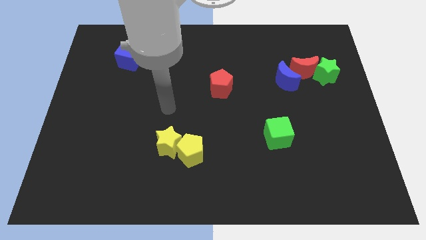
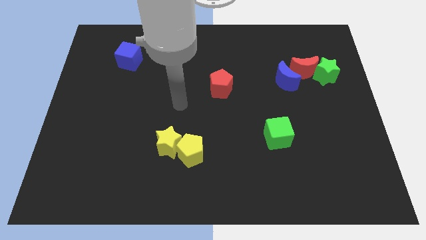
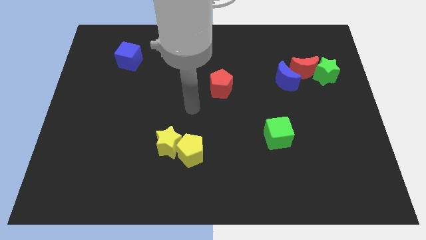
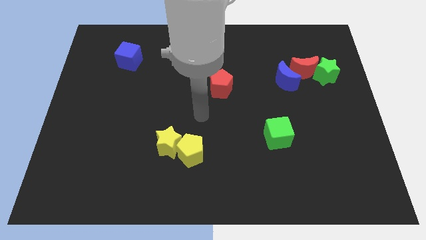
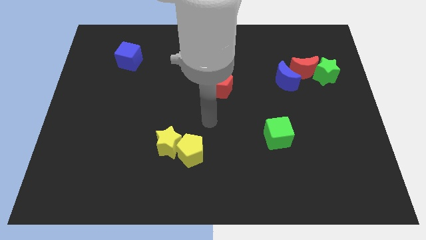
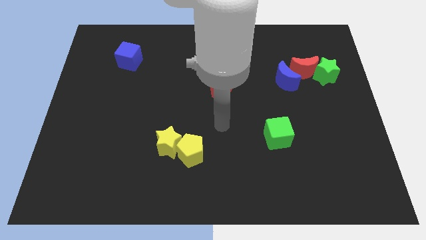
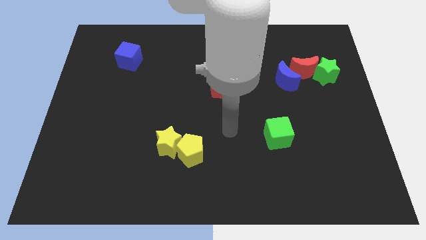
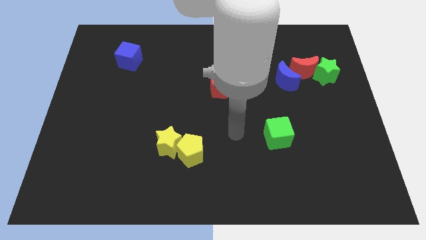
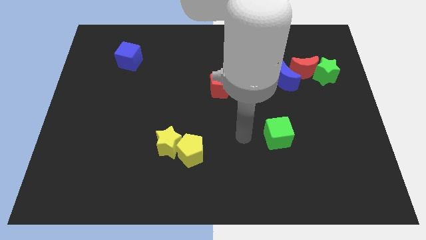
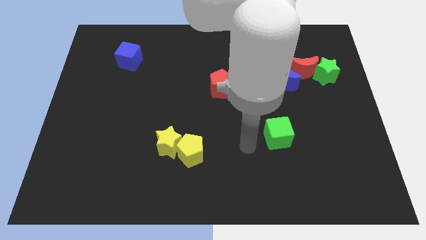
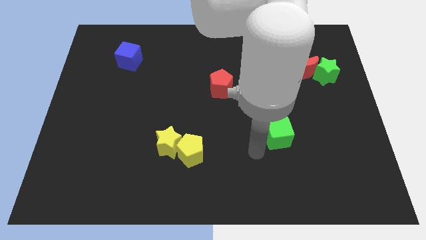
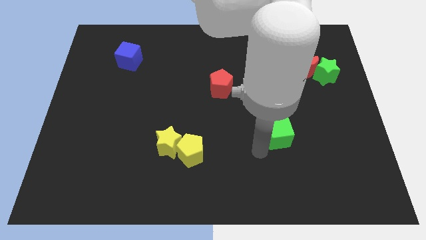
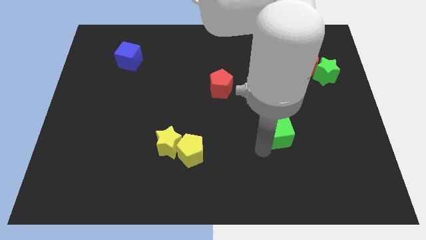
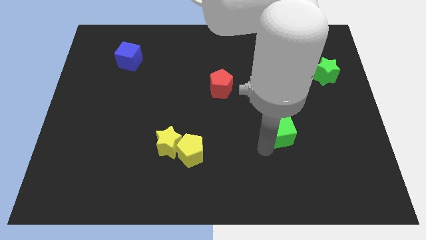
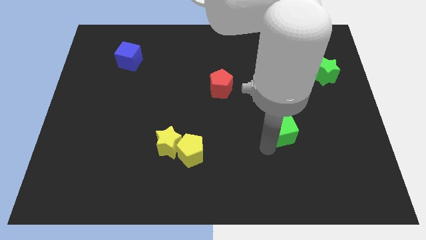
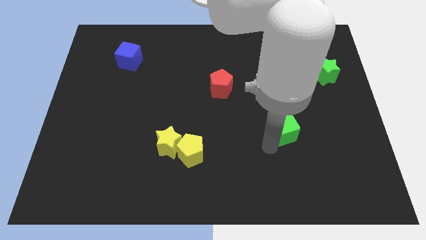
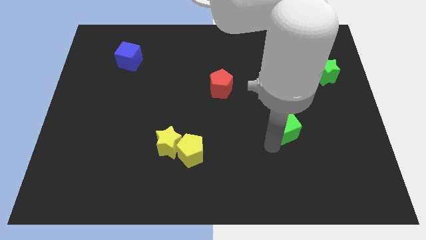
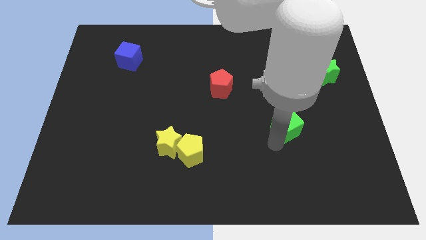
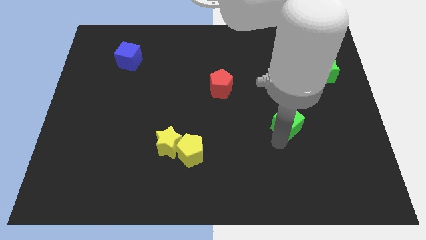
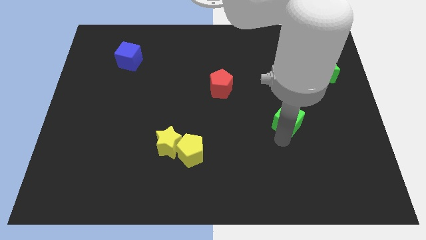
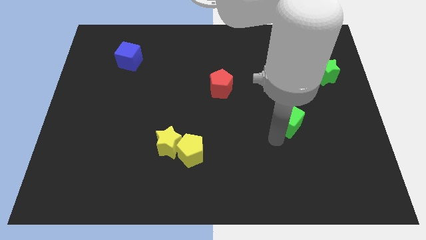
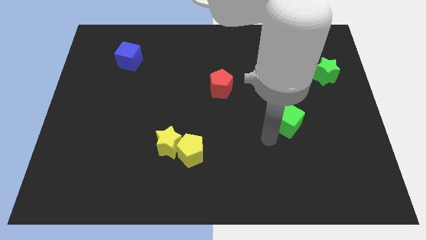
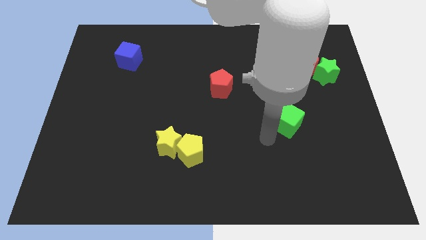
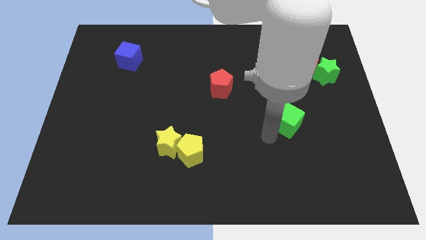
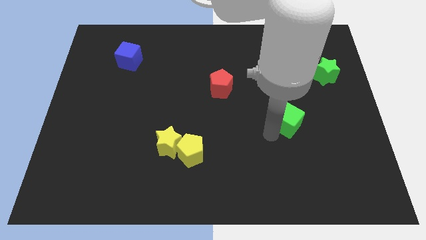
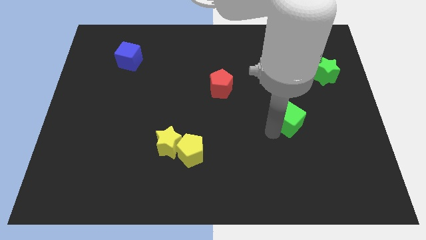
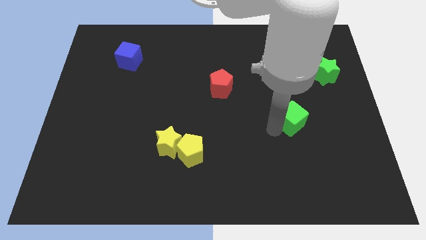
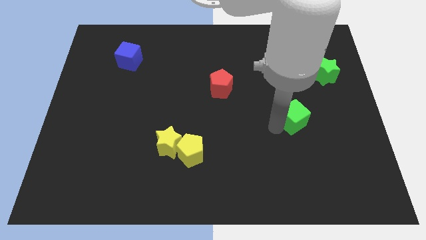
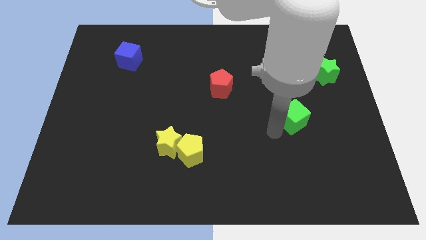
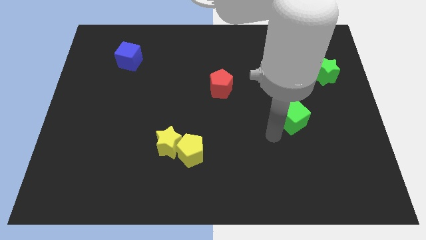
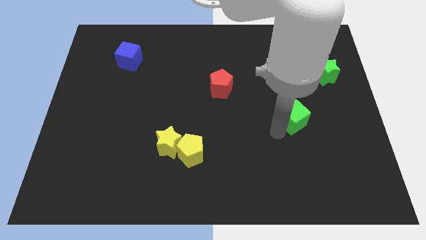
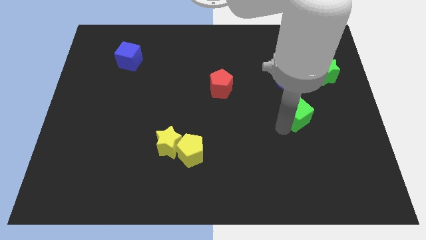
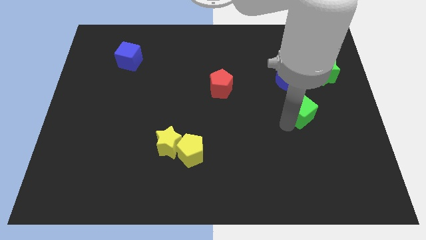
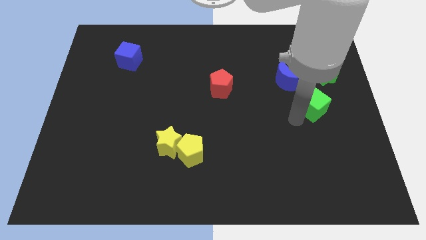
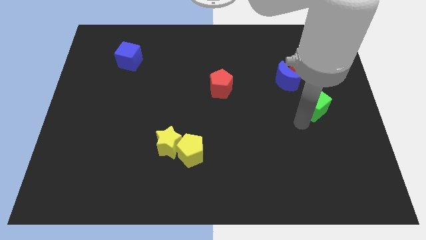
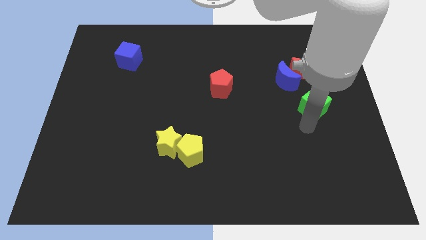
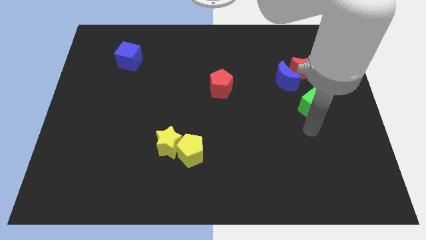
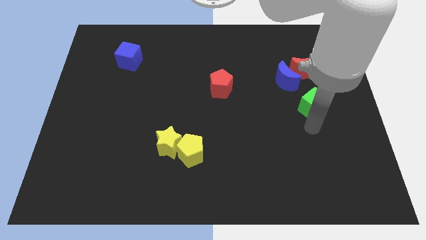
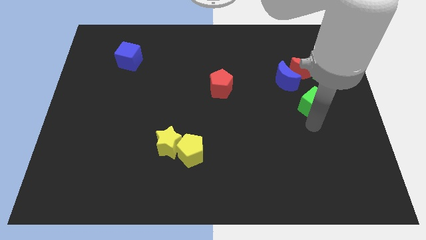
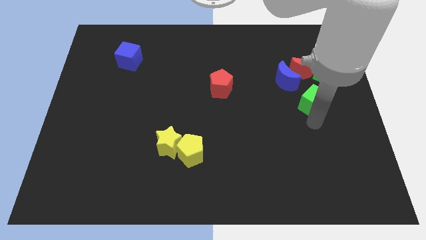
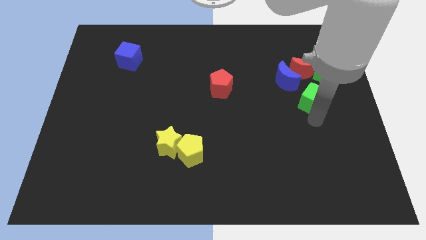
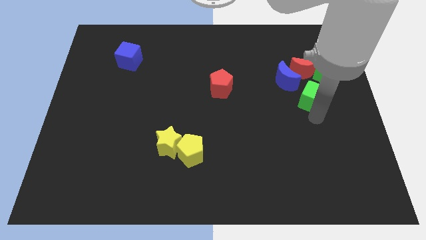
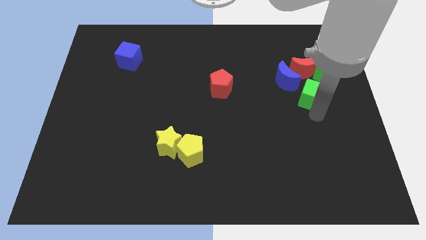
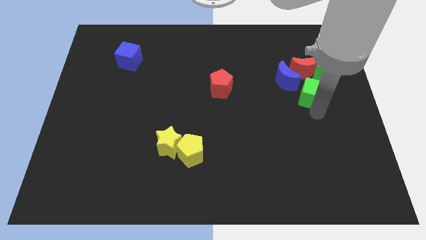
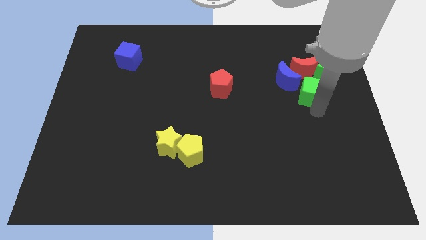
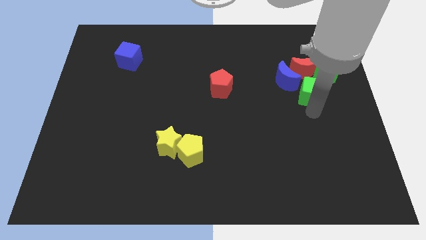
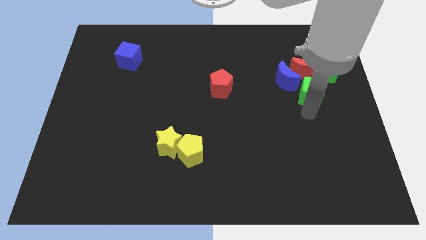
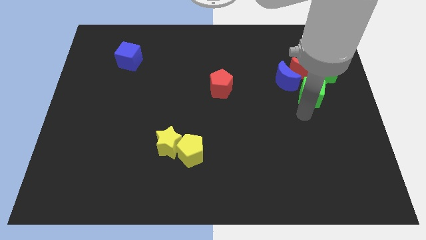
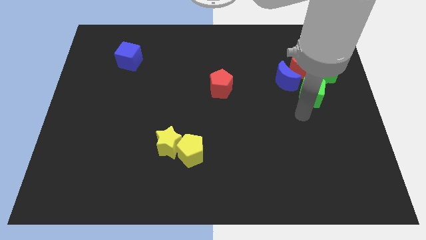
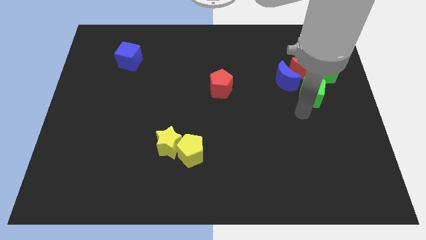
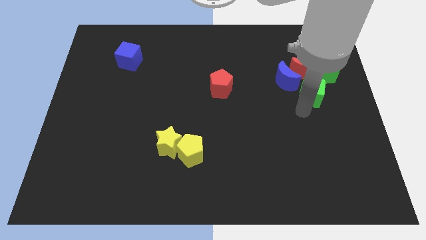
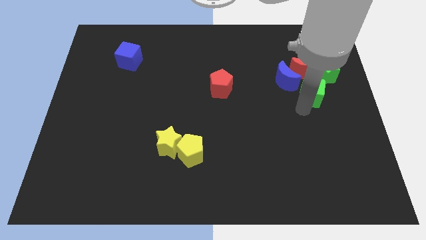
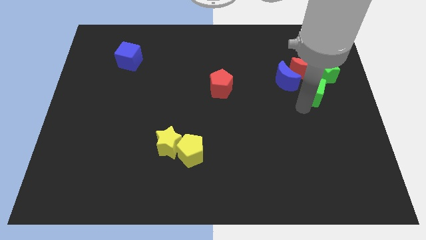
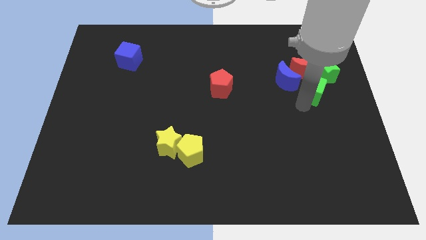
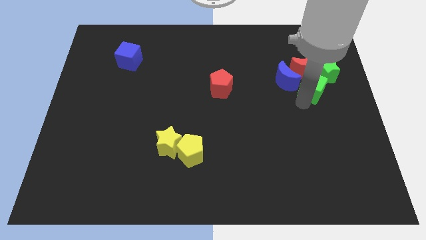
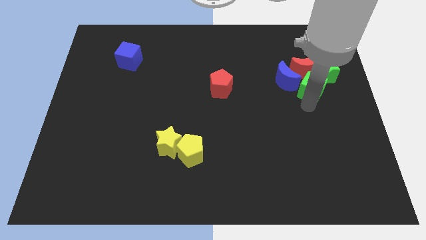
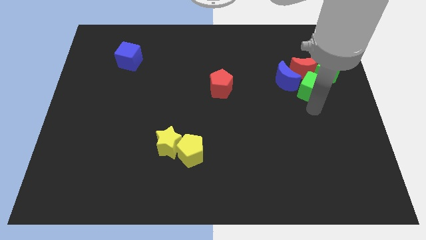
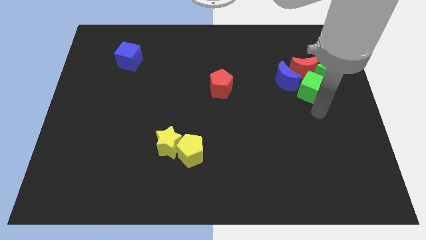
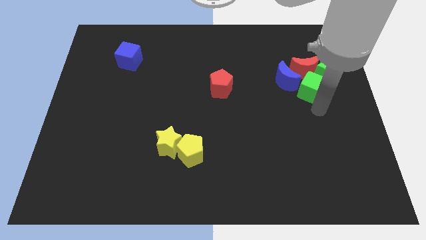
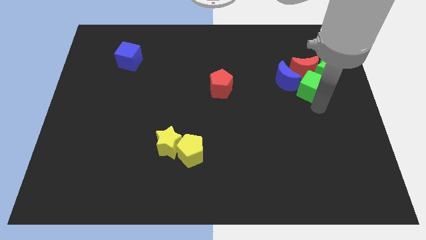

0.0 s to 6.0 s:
move the green cube close to the red moon

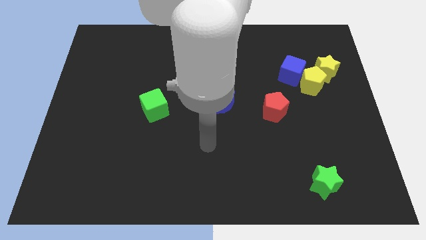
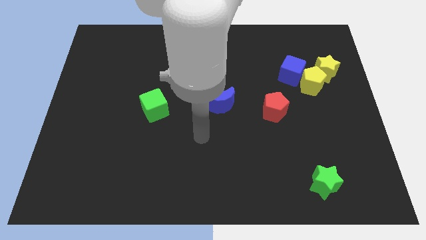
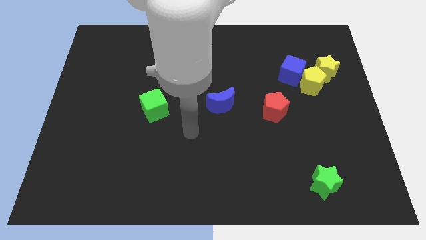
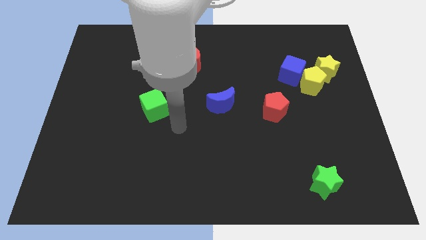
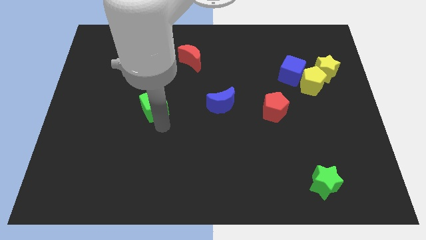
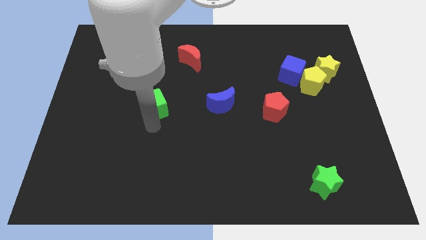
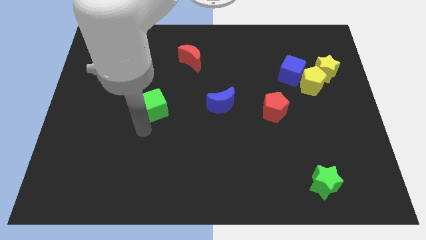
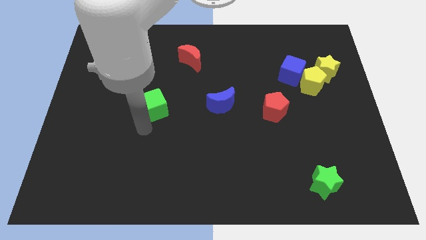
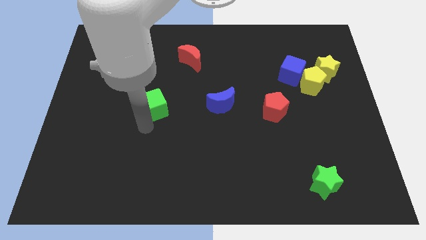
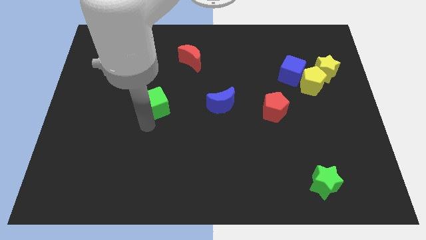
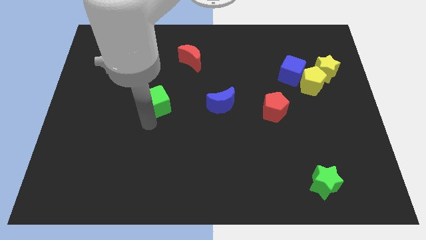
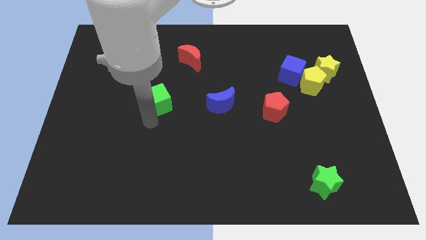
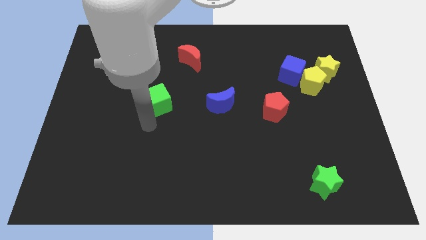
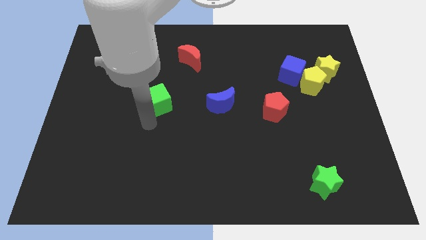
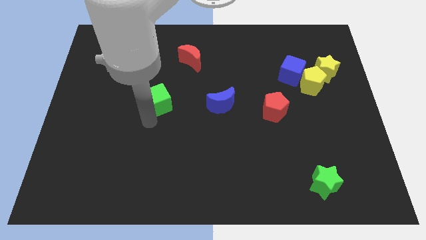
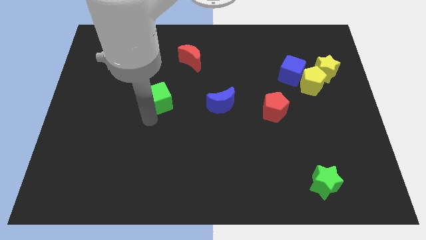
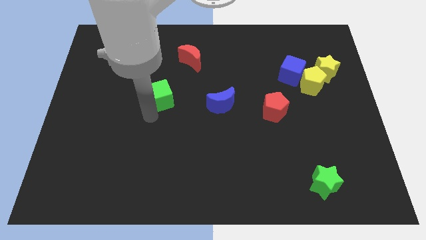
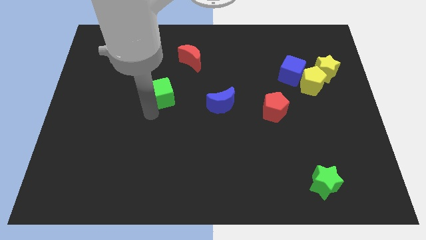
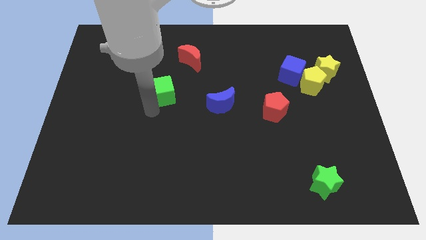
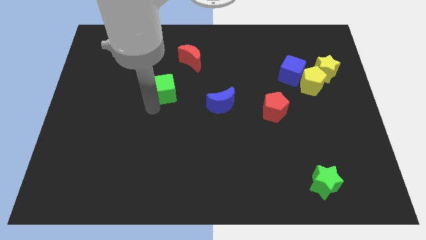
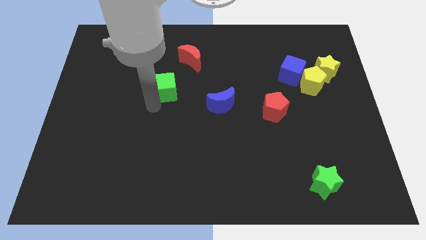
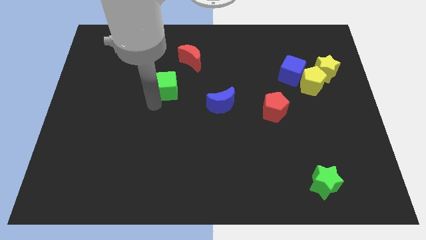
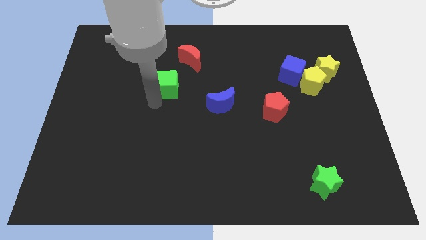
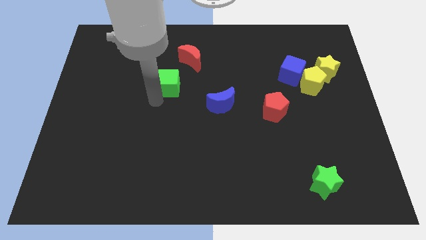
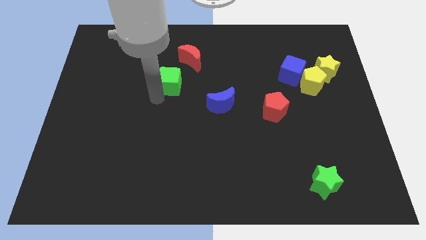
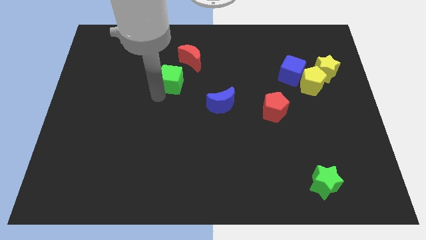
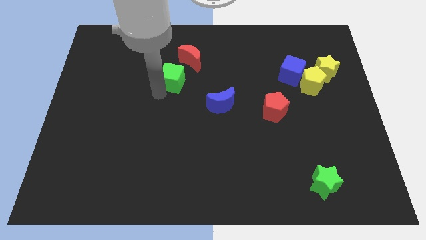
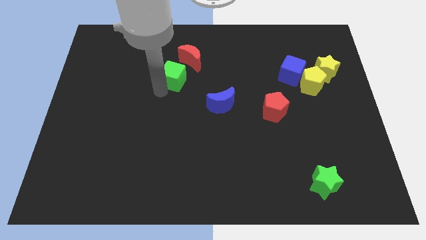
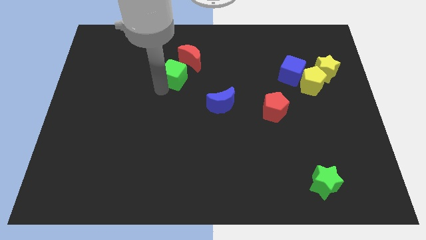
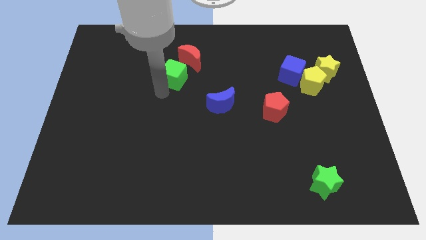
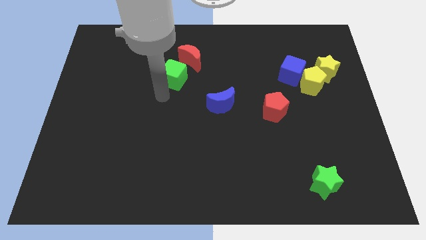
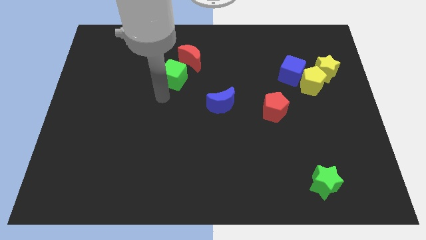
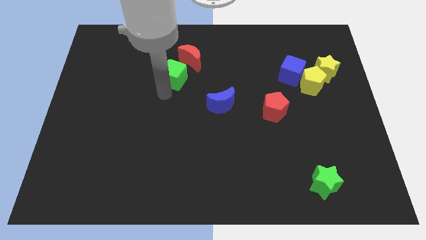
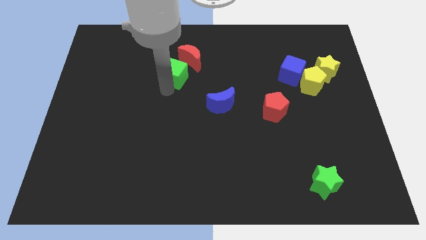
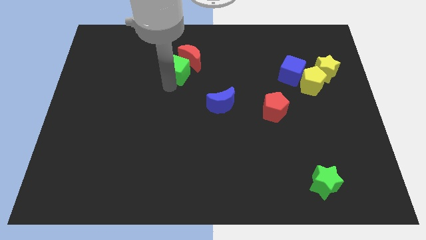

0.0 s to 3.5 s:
push the green cube to the red moon
